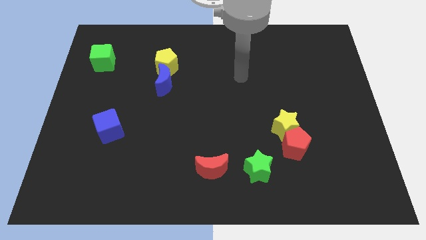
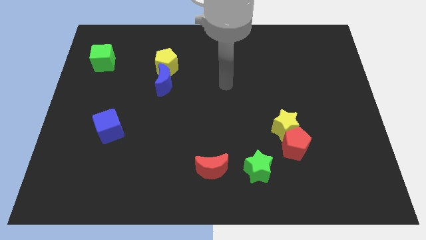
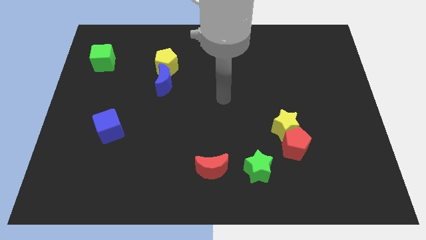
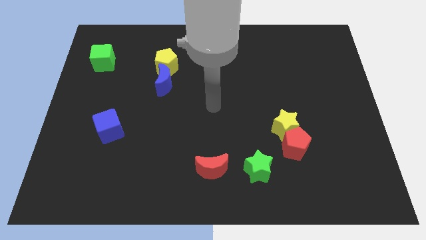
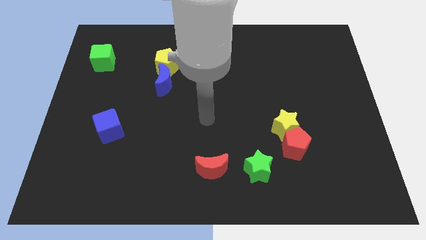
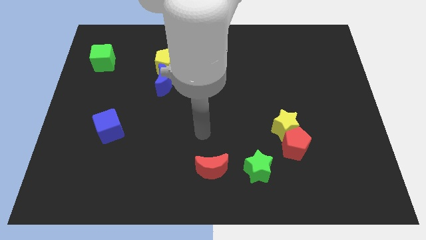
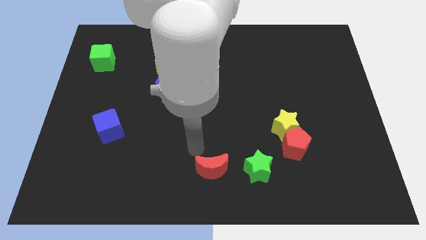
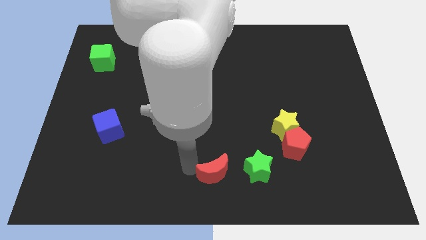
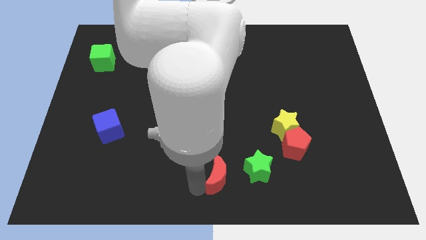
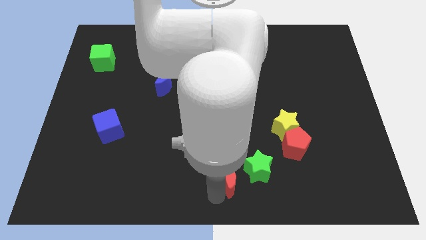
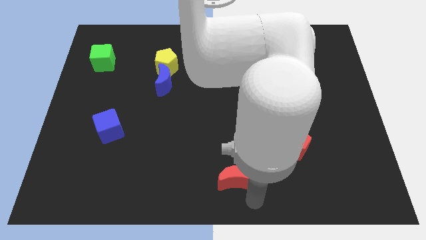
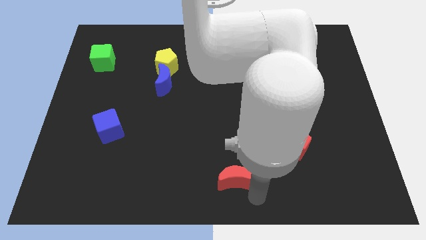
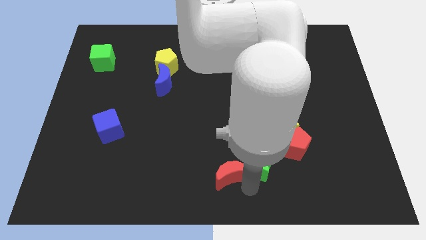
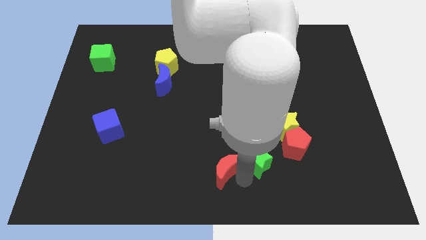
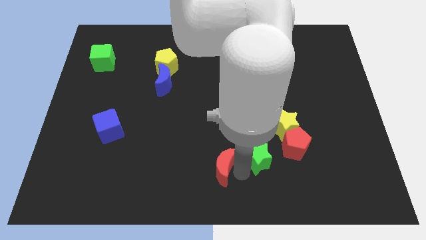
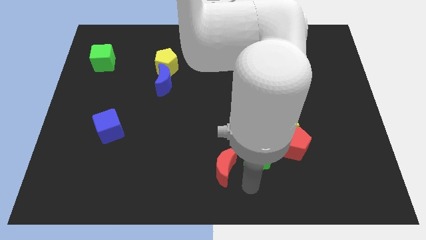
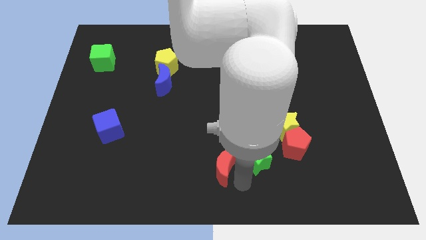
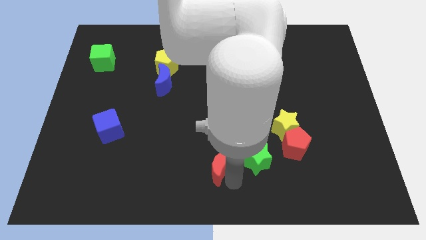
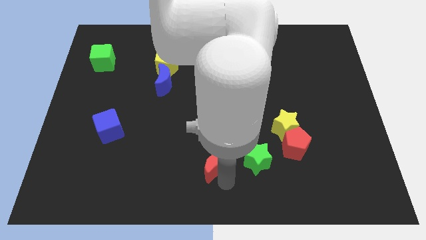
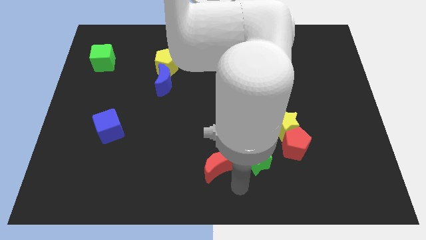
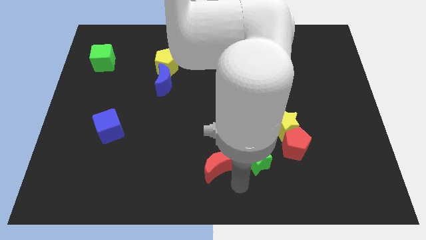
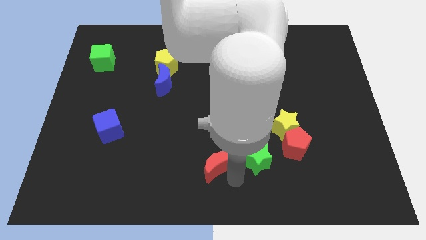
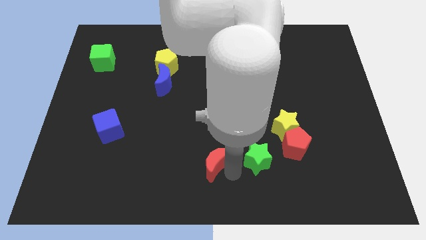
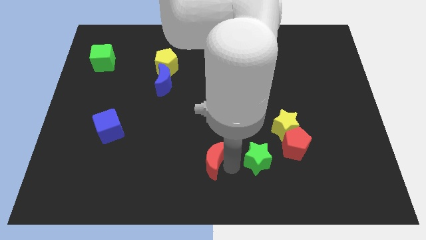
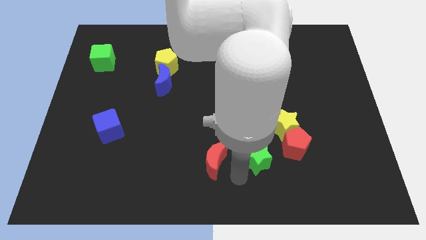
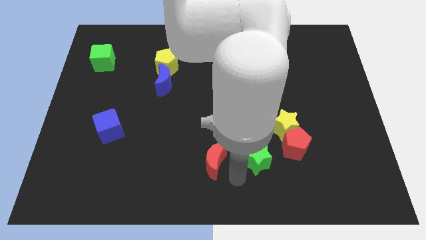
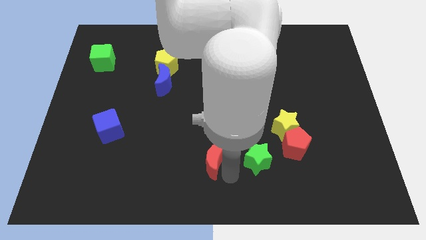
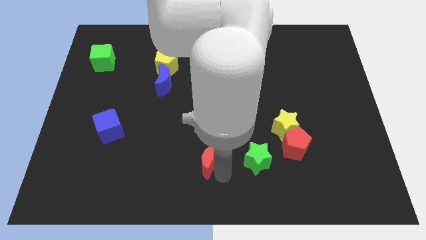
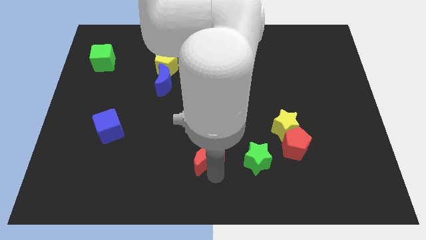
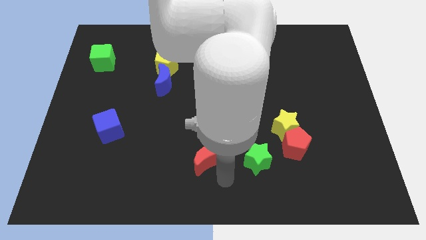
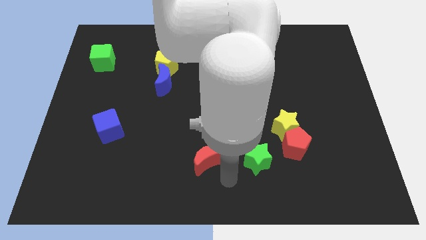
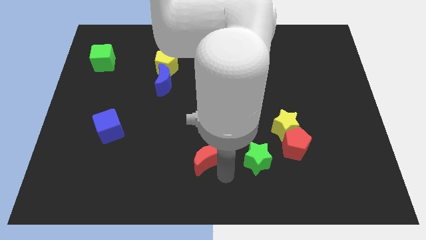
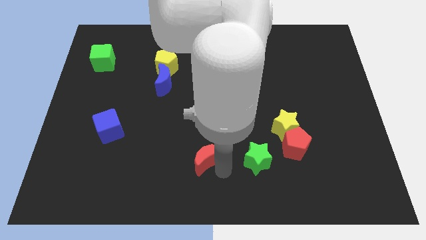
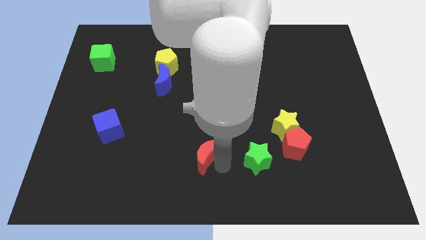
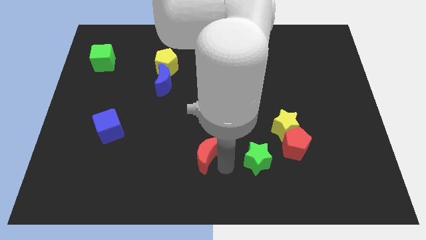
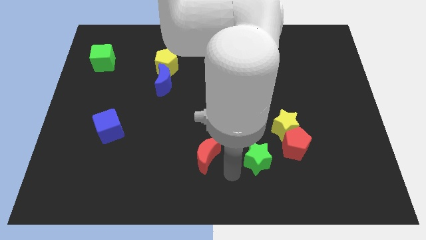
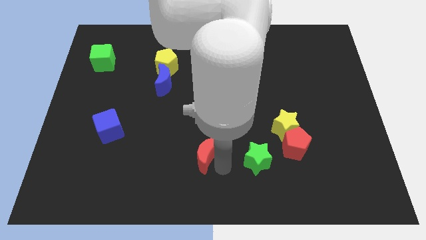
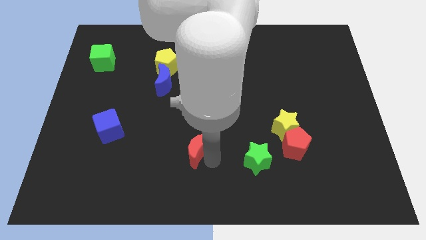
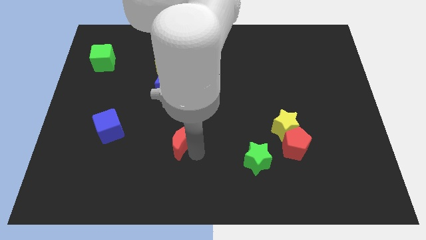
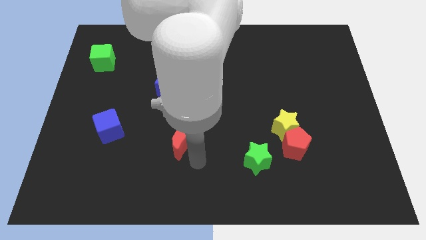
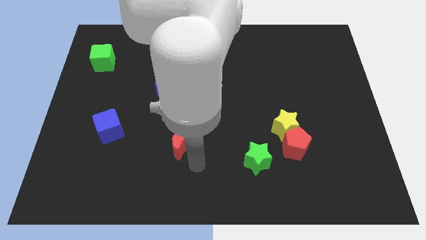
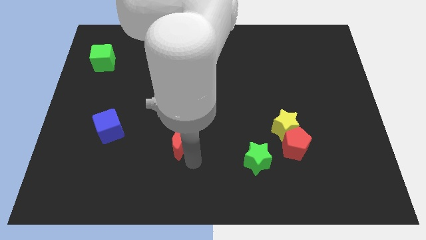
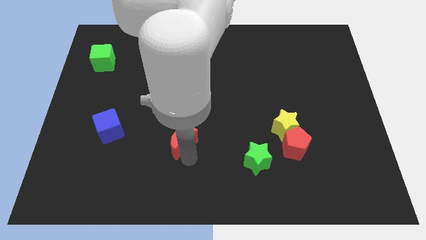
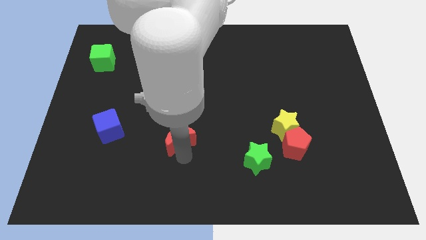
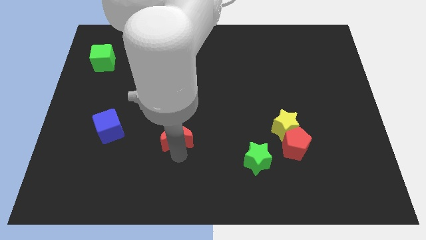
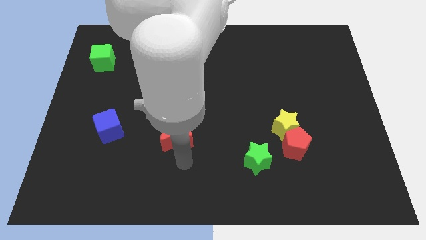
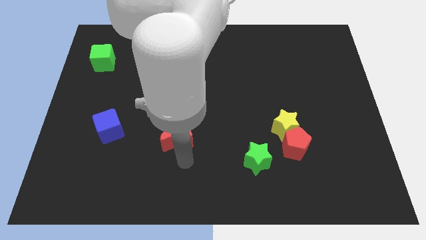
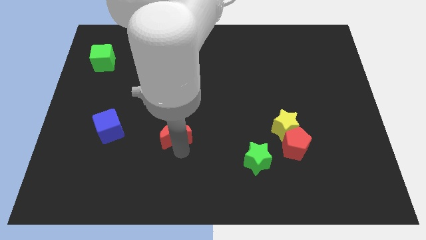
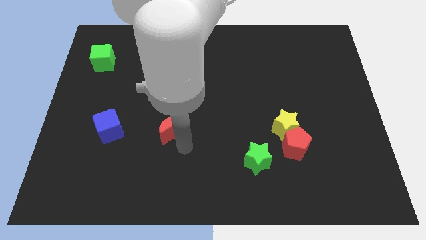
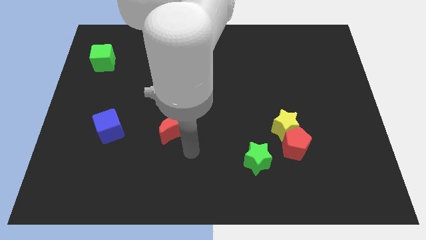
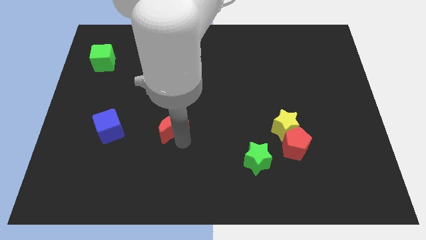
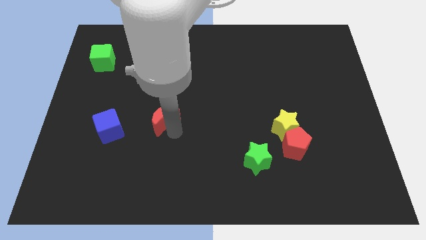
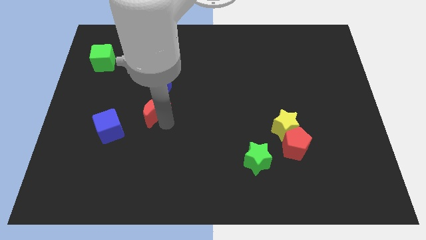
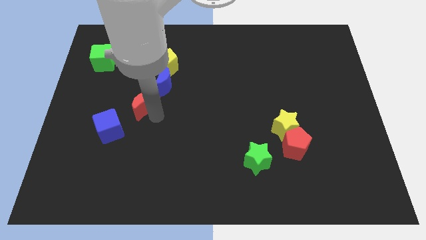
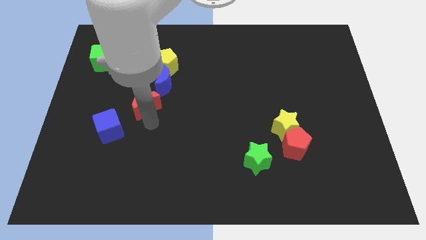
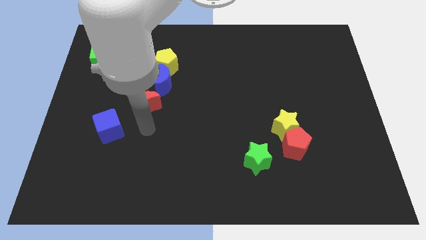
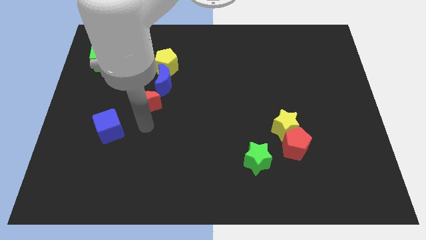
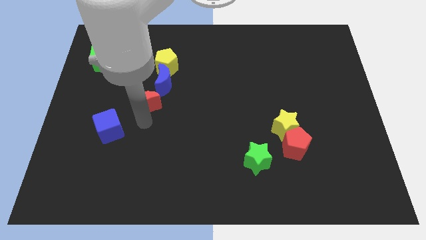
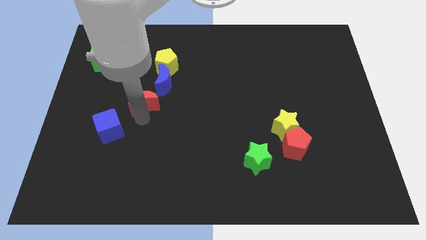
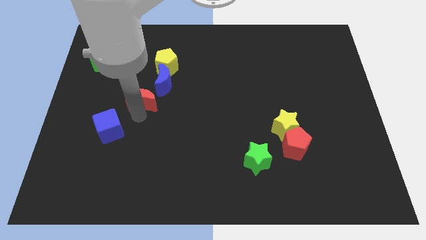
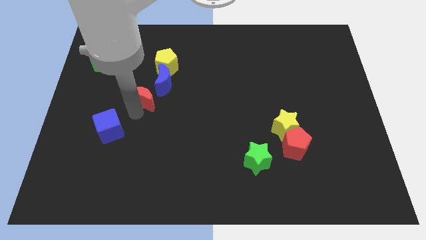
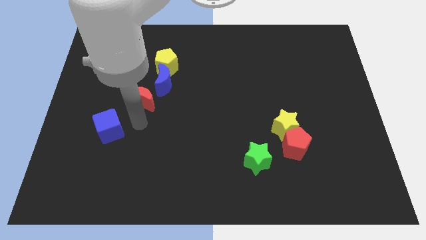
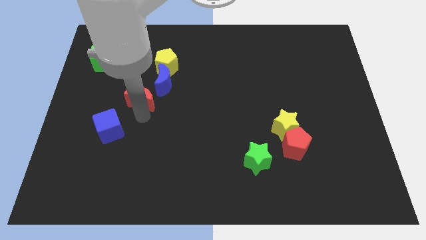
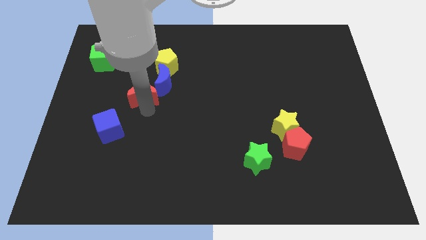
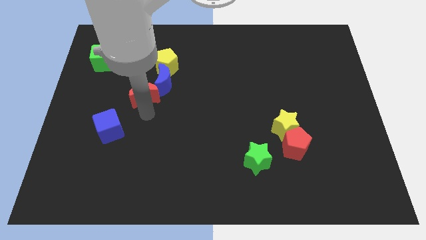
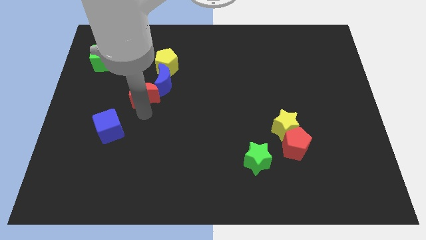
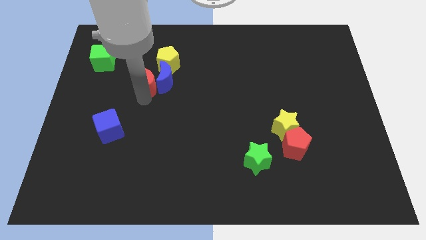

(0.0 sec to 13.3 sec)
move the red moon diagonally up and to the left of the blue moon

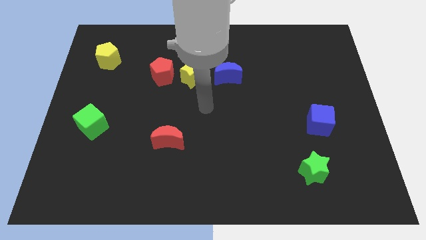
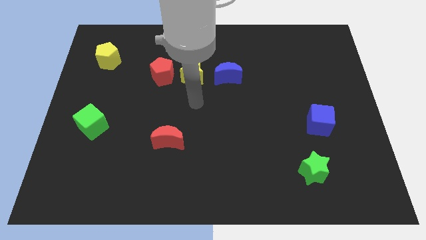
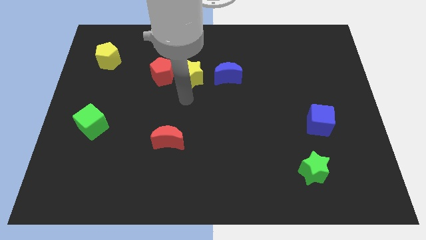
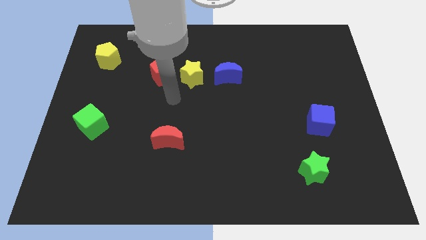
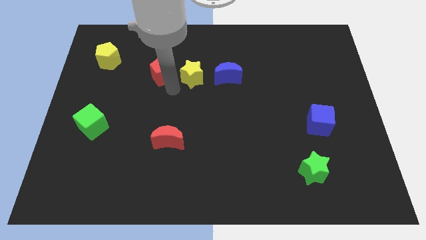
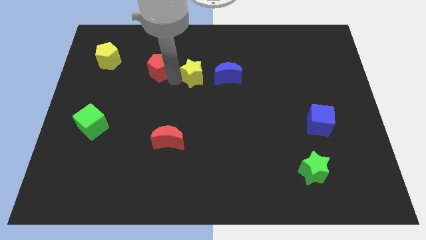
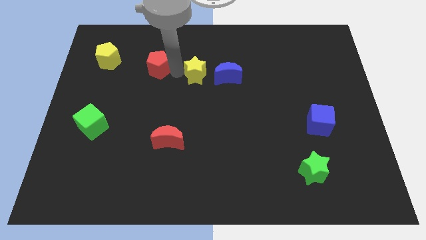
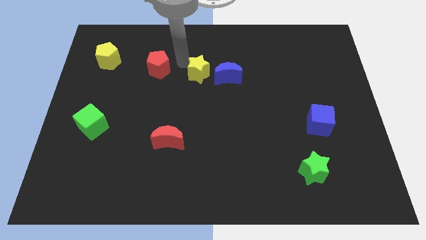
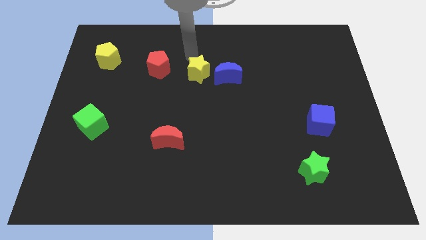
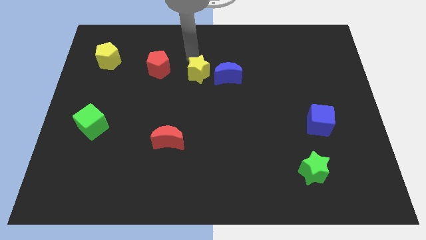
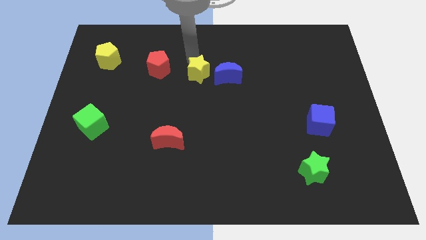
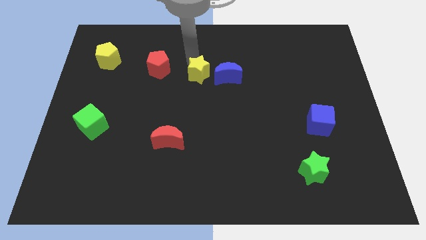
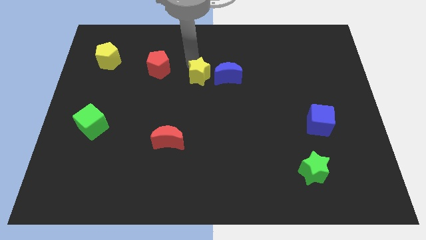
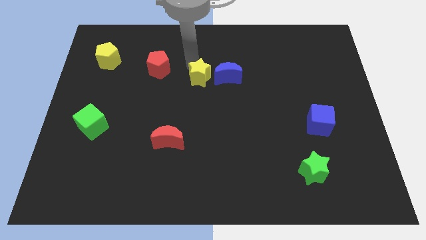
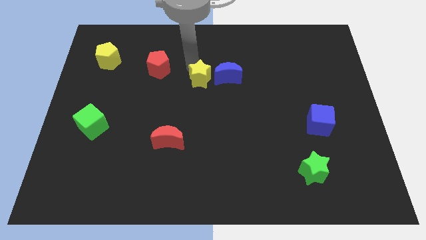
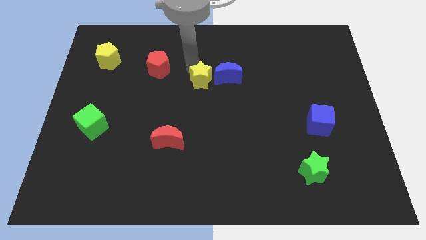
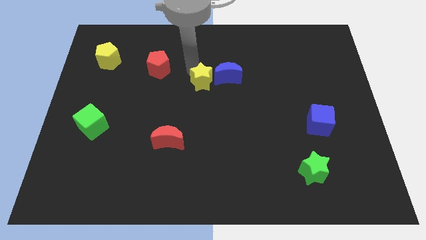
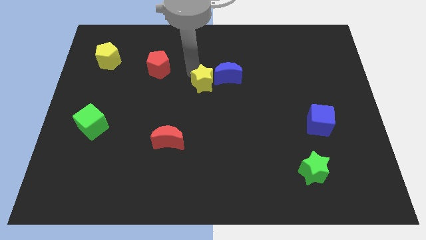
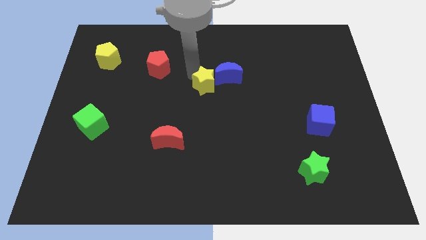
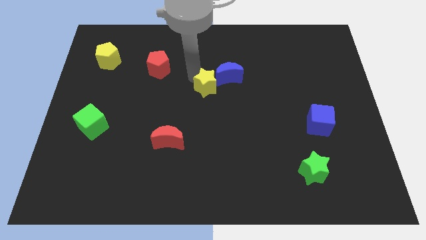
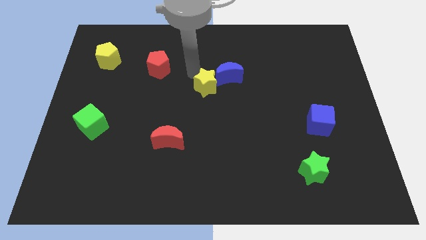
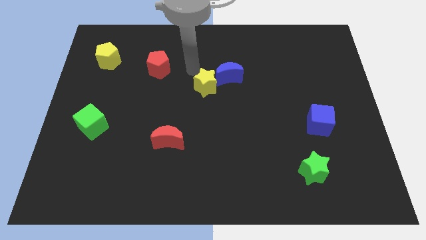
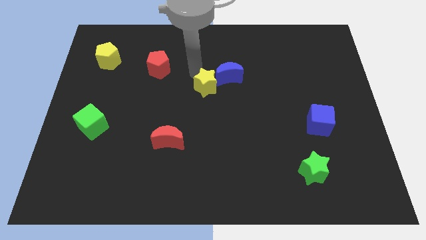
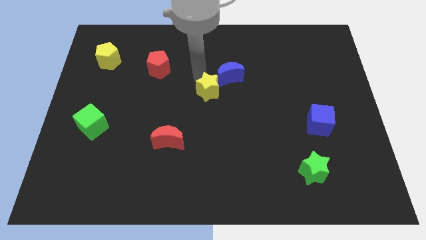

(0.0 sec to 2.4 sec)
move the yellow star to the bottom side of the blue moon
